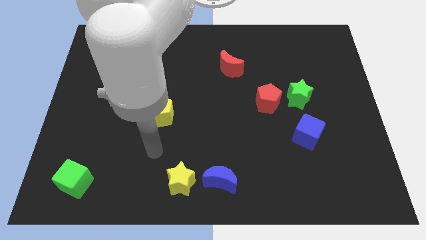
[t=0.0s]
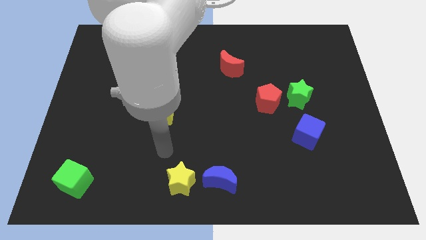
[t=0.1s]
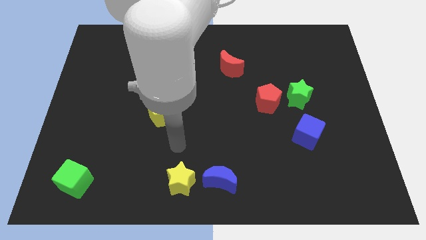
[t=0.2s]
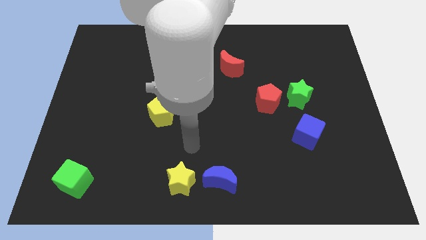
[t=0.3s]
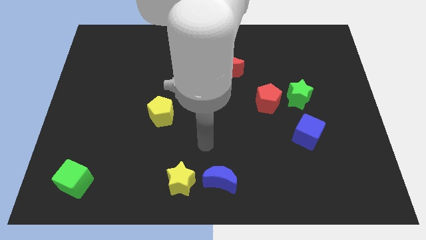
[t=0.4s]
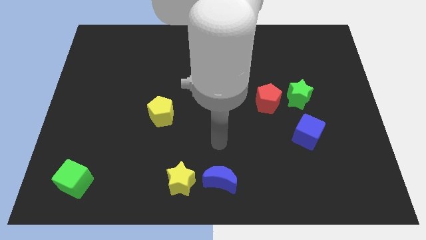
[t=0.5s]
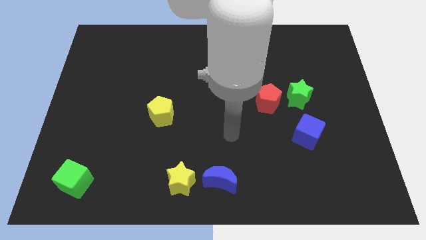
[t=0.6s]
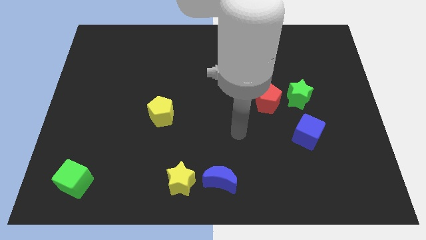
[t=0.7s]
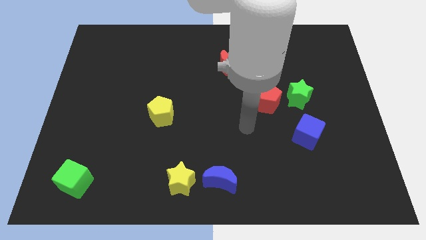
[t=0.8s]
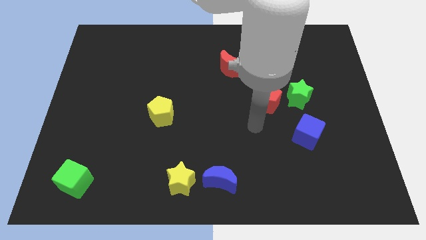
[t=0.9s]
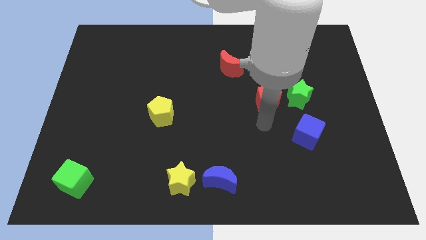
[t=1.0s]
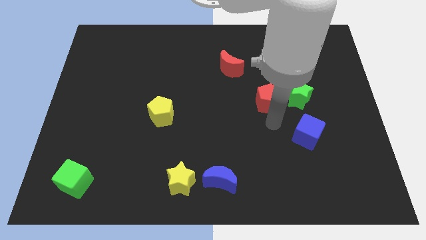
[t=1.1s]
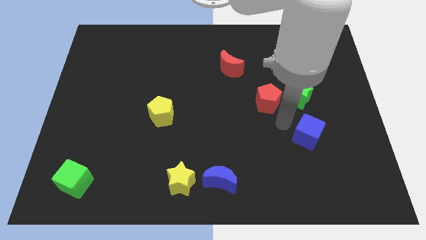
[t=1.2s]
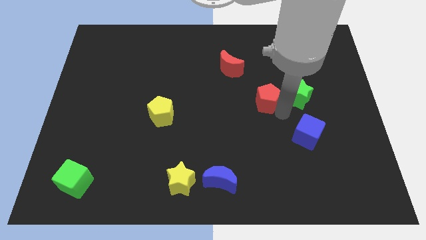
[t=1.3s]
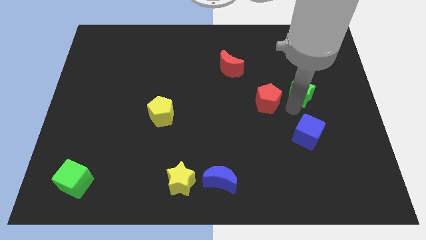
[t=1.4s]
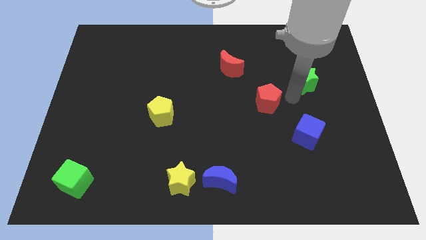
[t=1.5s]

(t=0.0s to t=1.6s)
pull the red pentagon apart from the green star

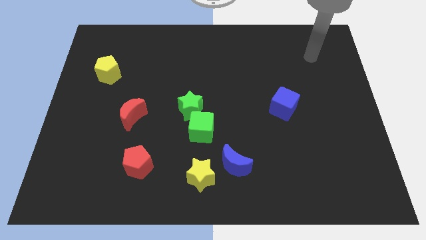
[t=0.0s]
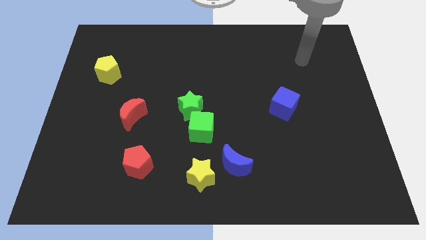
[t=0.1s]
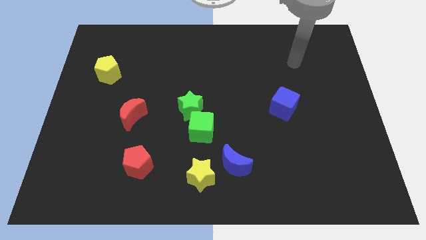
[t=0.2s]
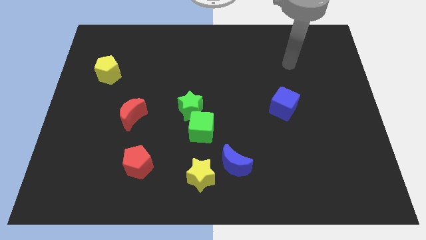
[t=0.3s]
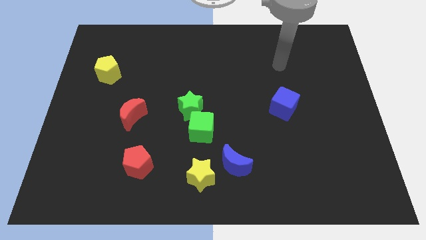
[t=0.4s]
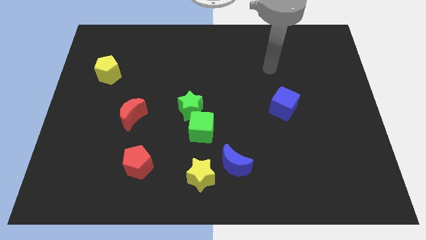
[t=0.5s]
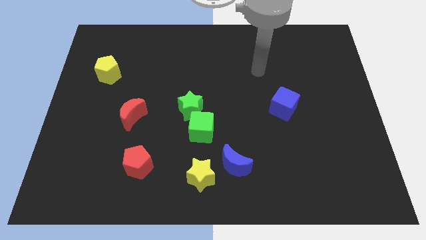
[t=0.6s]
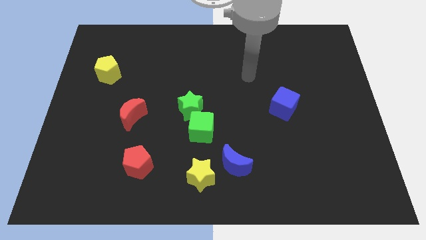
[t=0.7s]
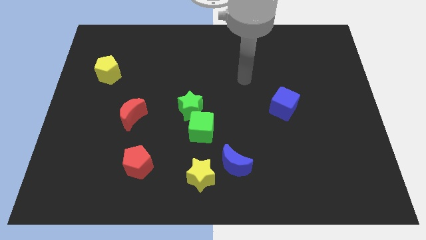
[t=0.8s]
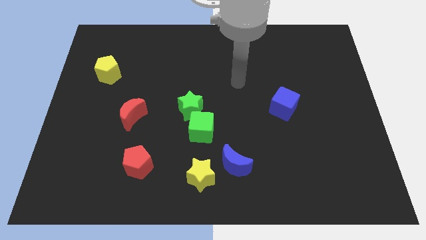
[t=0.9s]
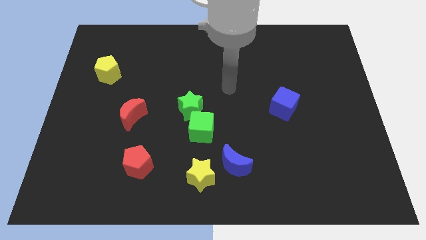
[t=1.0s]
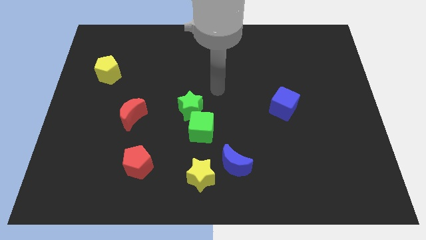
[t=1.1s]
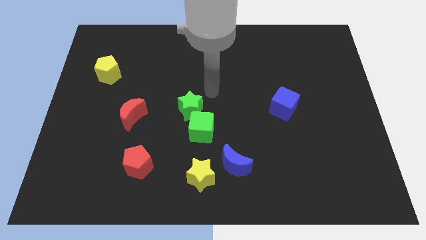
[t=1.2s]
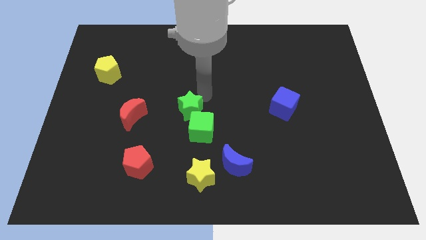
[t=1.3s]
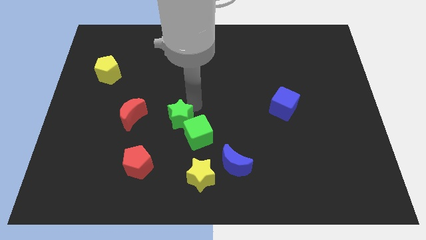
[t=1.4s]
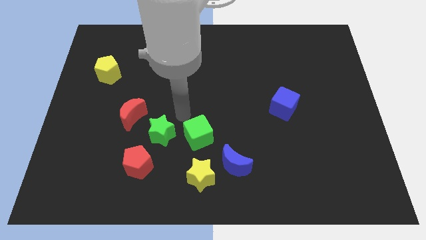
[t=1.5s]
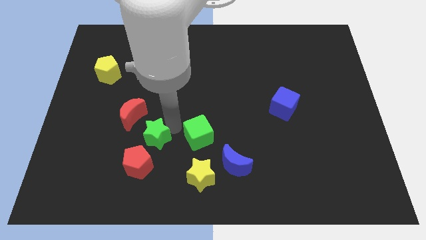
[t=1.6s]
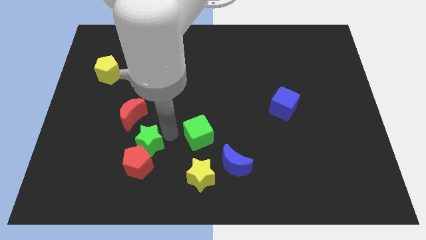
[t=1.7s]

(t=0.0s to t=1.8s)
pull the green cube apart from the green star

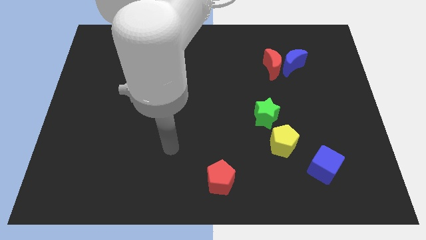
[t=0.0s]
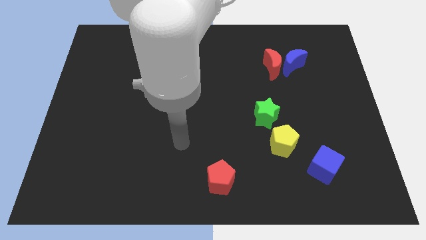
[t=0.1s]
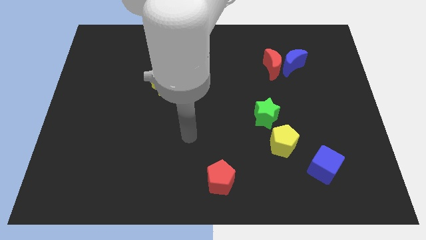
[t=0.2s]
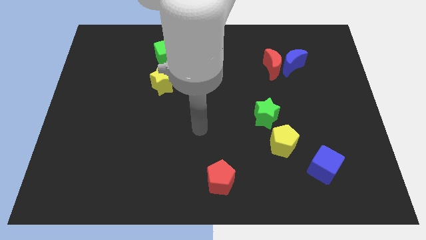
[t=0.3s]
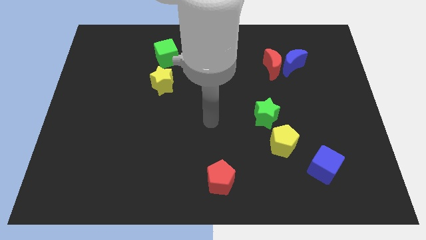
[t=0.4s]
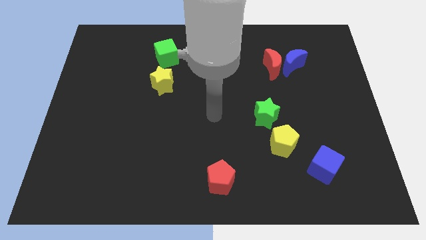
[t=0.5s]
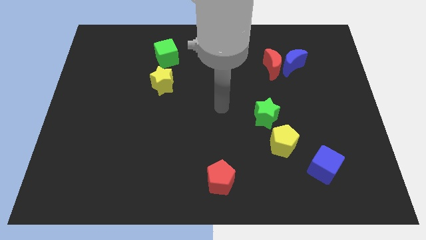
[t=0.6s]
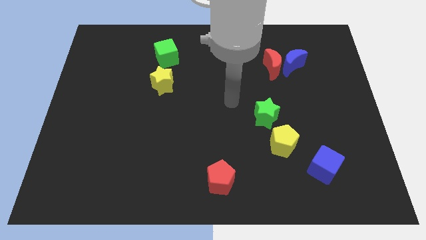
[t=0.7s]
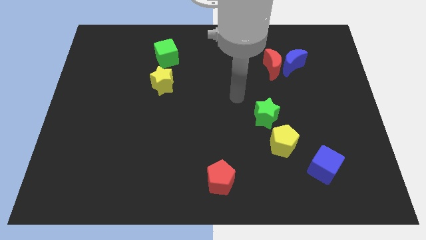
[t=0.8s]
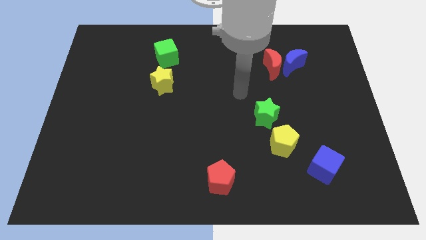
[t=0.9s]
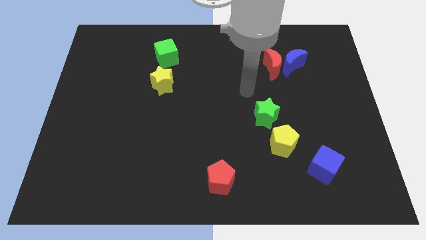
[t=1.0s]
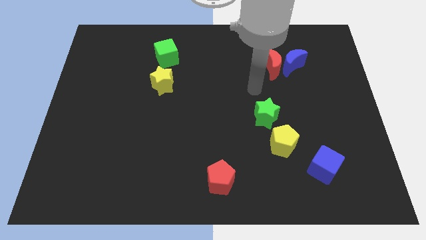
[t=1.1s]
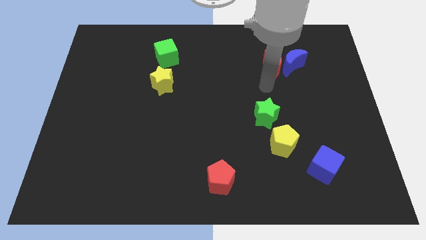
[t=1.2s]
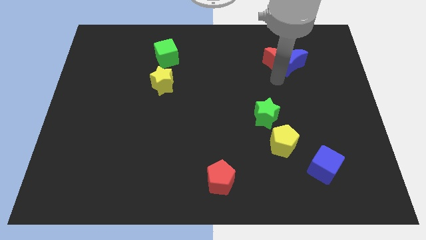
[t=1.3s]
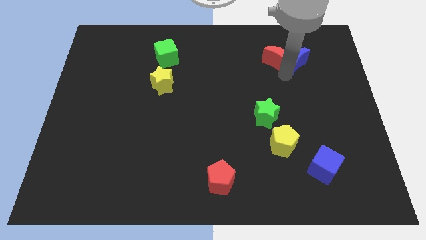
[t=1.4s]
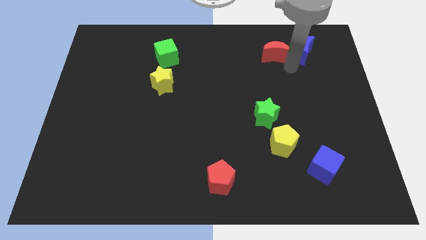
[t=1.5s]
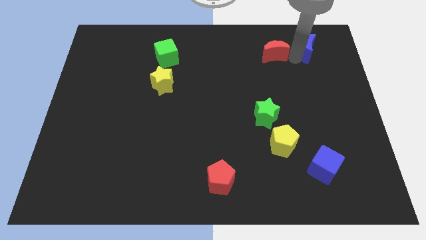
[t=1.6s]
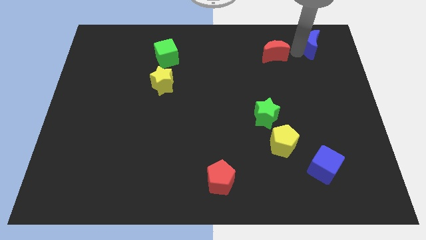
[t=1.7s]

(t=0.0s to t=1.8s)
pull the red moon apart from the blue moon

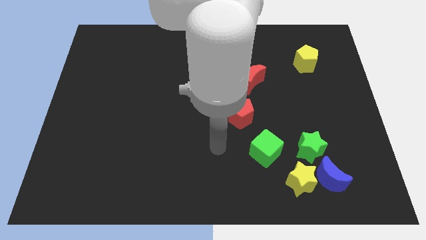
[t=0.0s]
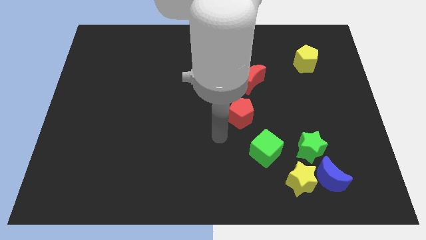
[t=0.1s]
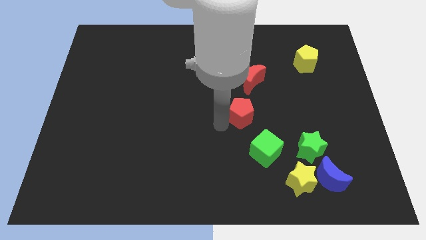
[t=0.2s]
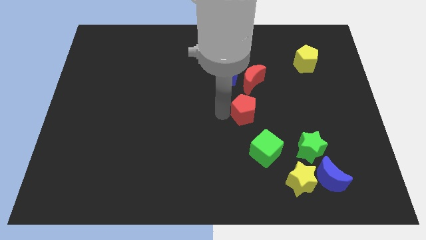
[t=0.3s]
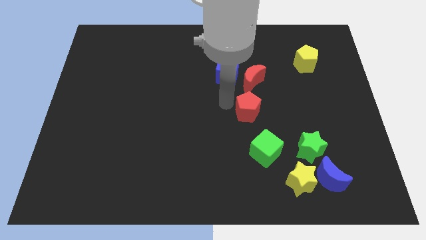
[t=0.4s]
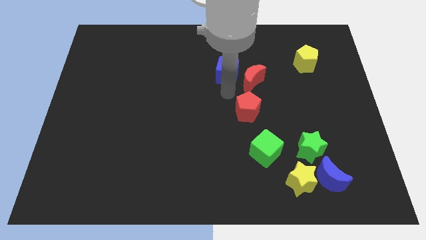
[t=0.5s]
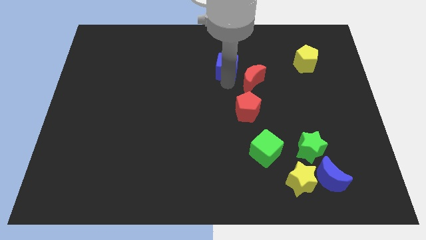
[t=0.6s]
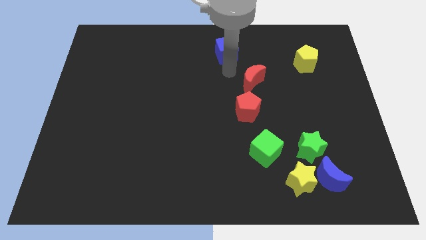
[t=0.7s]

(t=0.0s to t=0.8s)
move the red moon away from the blue cube

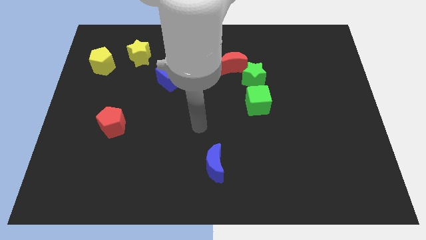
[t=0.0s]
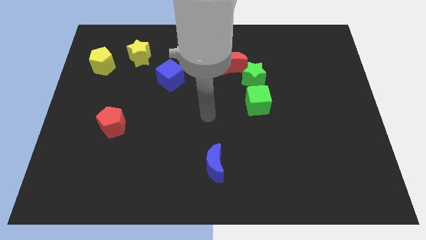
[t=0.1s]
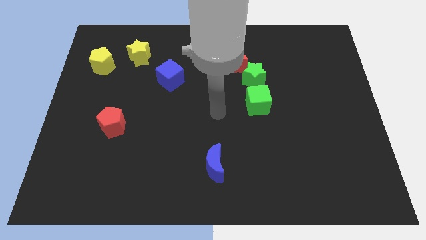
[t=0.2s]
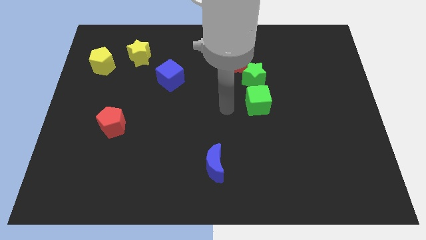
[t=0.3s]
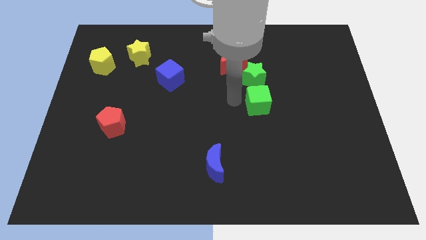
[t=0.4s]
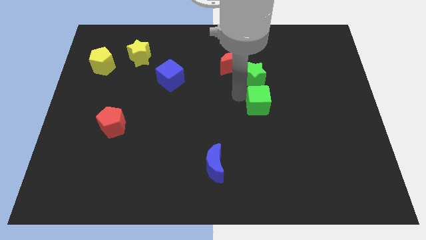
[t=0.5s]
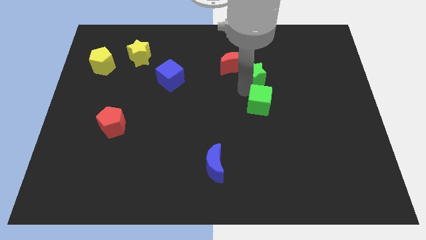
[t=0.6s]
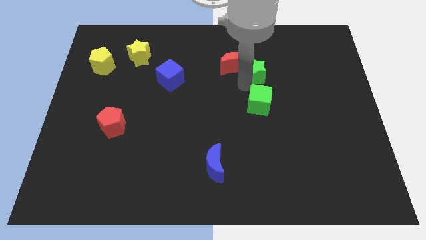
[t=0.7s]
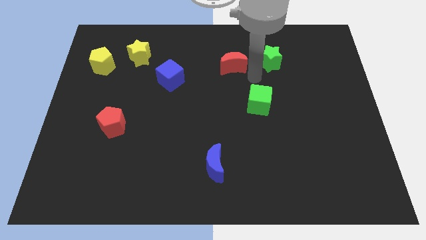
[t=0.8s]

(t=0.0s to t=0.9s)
pull the red moon apart from the green star

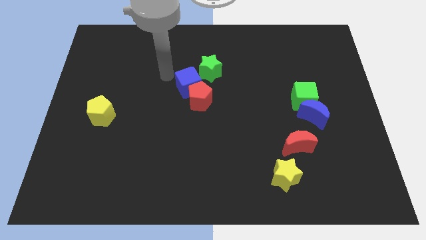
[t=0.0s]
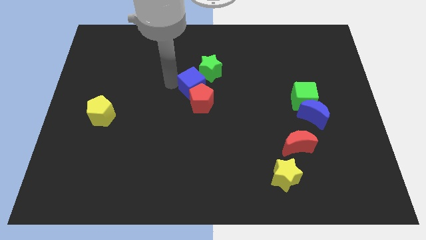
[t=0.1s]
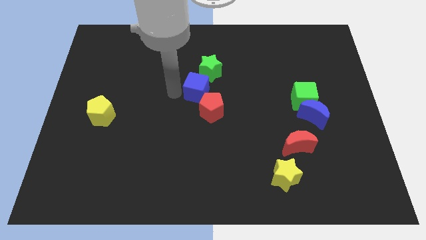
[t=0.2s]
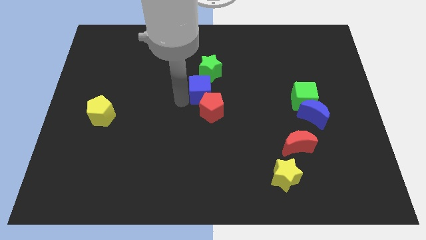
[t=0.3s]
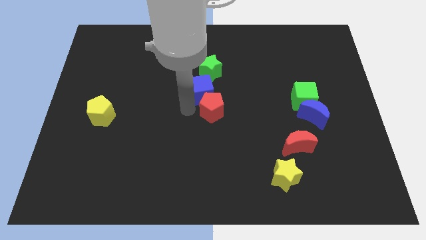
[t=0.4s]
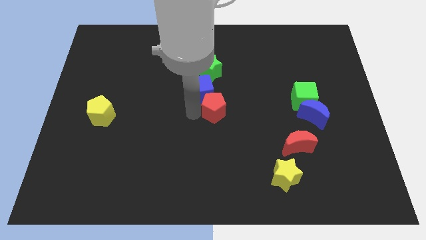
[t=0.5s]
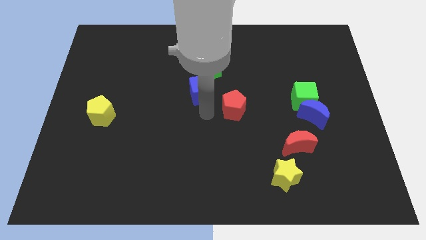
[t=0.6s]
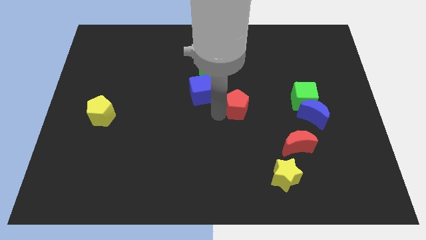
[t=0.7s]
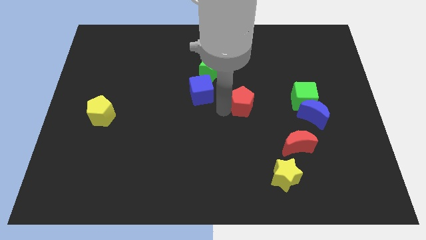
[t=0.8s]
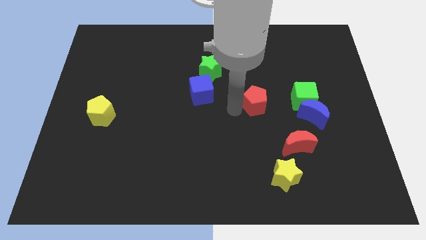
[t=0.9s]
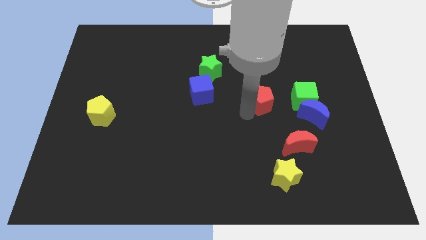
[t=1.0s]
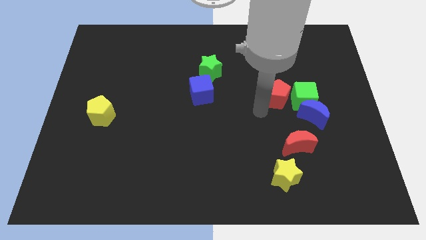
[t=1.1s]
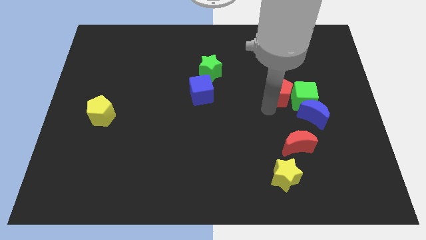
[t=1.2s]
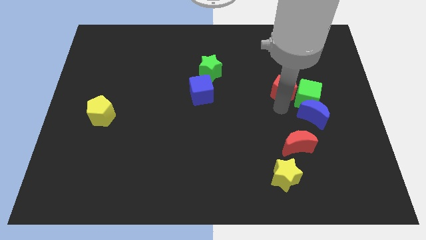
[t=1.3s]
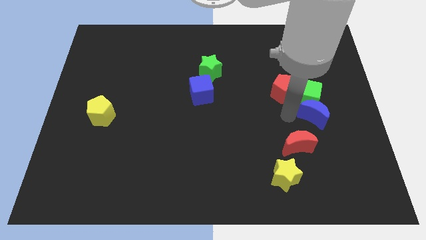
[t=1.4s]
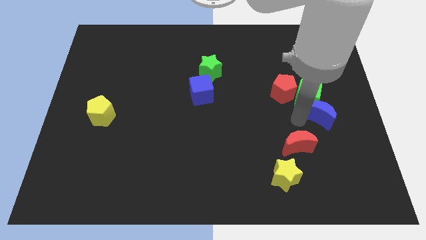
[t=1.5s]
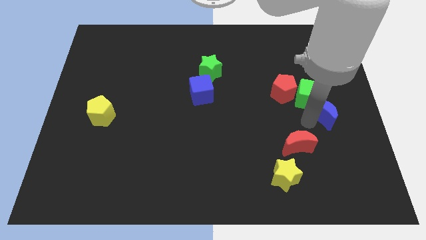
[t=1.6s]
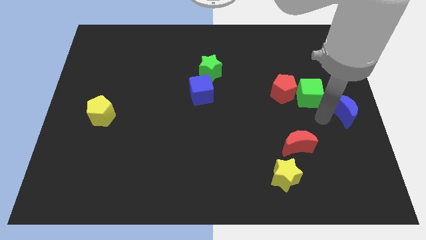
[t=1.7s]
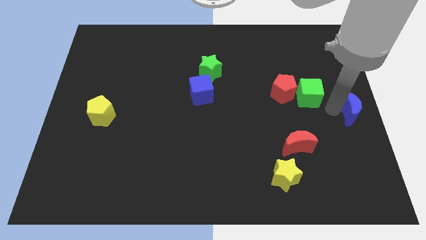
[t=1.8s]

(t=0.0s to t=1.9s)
separate the green cube from the blue moon

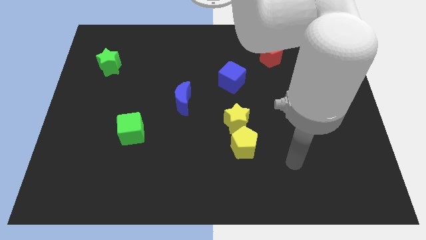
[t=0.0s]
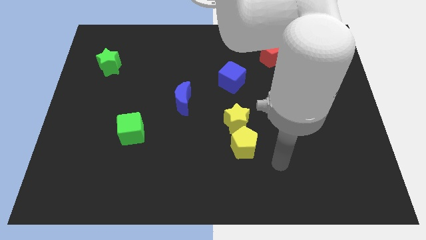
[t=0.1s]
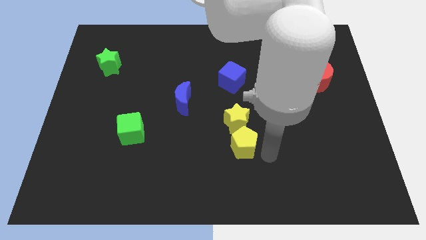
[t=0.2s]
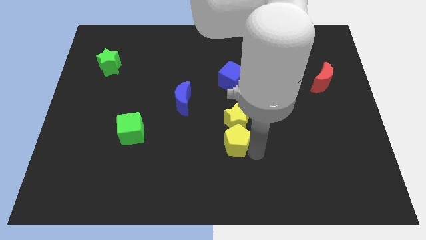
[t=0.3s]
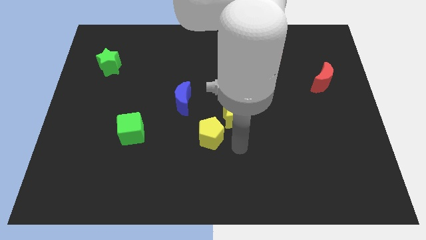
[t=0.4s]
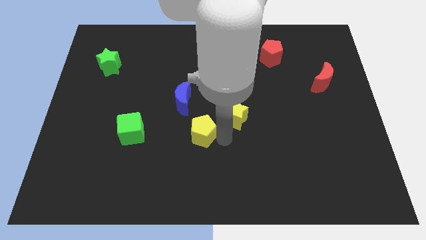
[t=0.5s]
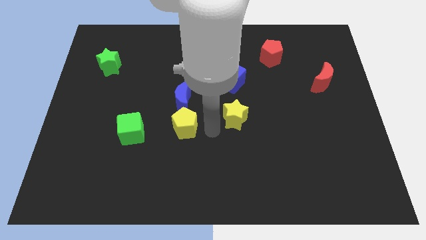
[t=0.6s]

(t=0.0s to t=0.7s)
pull the yellow star apart from the yellow pentagon
